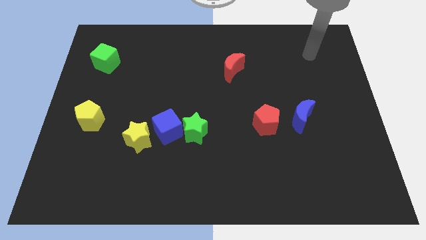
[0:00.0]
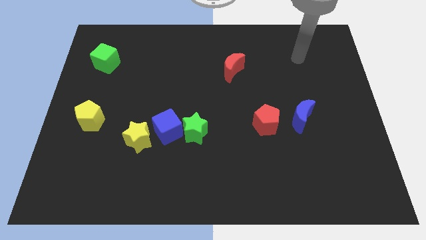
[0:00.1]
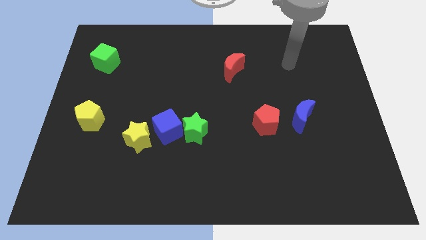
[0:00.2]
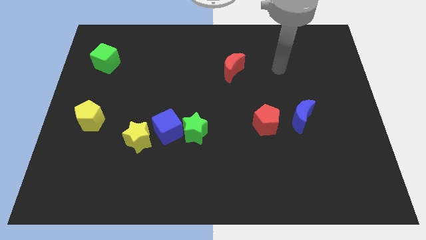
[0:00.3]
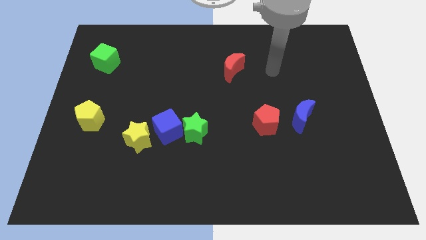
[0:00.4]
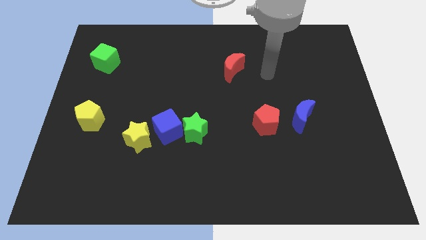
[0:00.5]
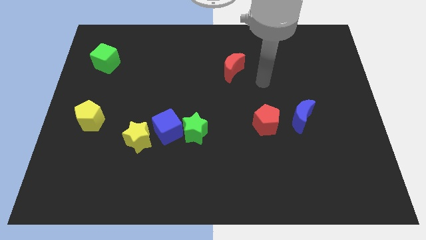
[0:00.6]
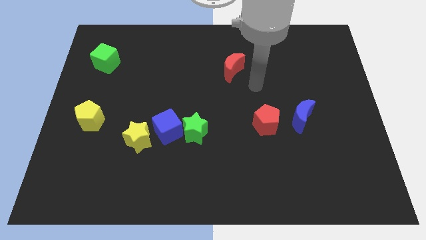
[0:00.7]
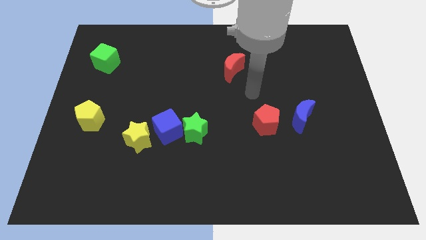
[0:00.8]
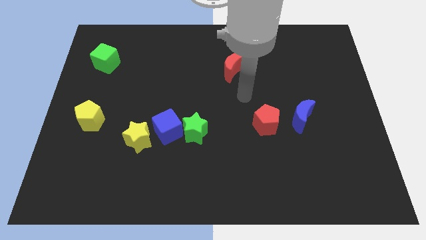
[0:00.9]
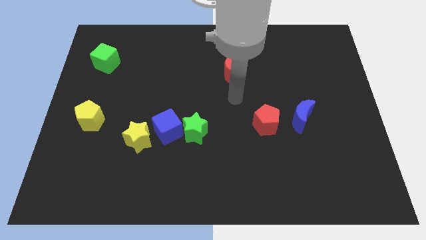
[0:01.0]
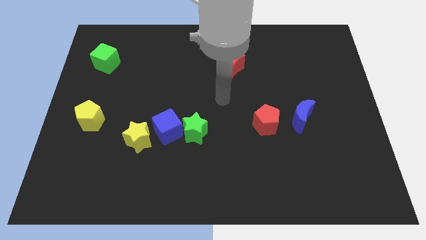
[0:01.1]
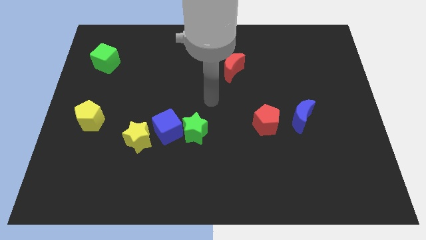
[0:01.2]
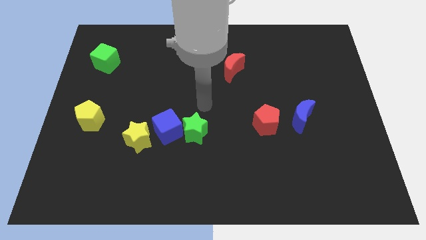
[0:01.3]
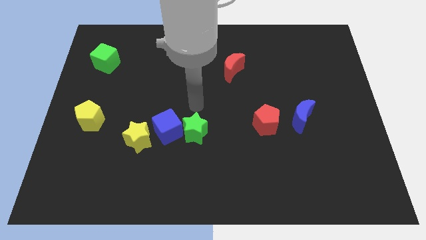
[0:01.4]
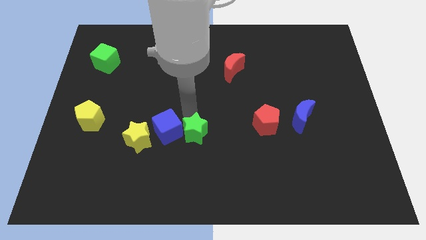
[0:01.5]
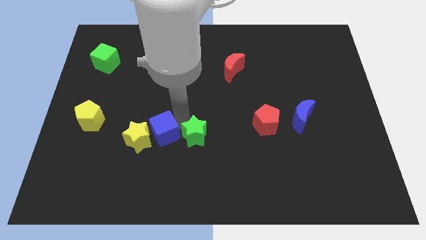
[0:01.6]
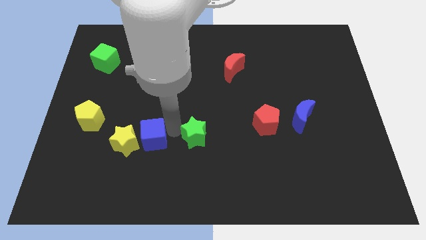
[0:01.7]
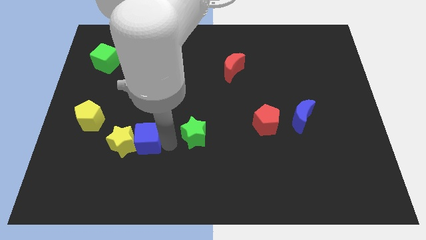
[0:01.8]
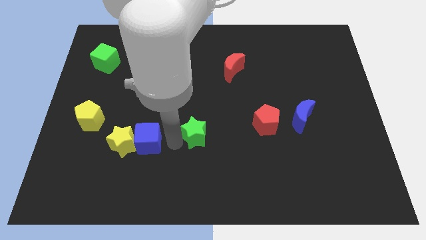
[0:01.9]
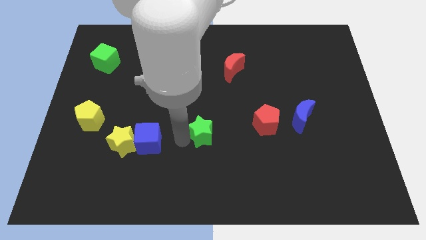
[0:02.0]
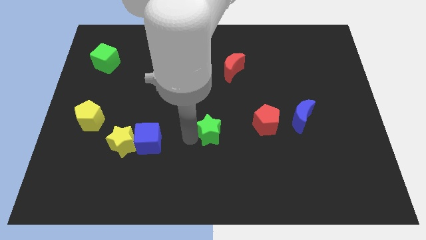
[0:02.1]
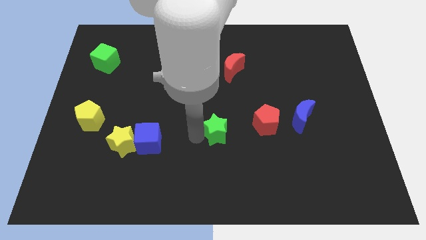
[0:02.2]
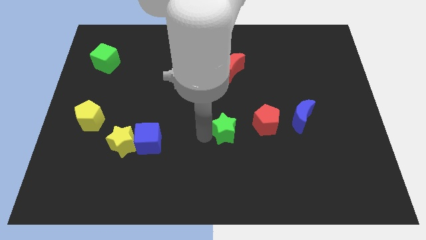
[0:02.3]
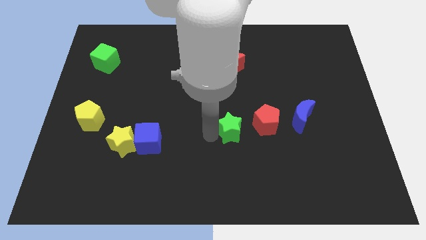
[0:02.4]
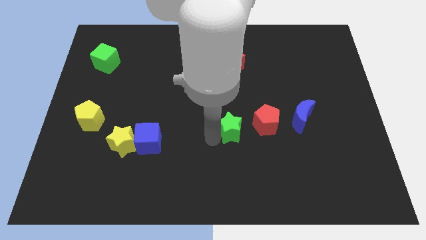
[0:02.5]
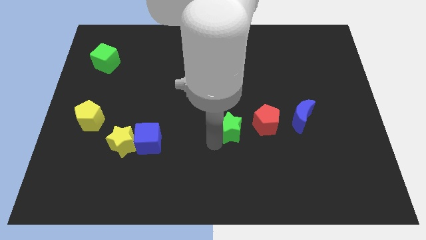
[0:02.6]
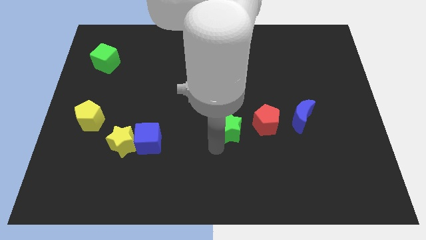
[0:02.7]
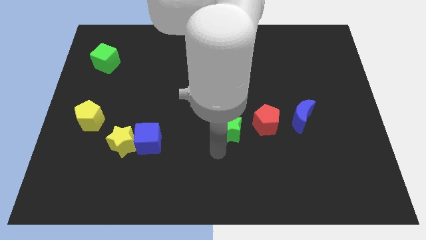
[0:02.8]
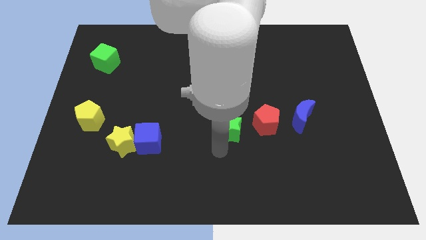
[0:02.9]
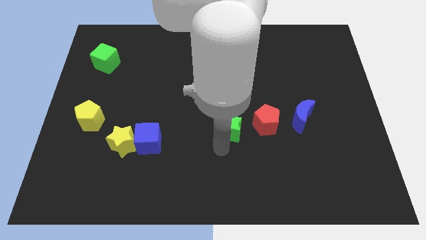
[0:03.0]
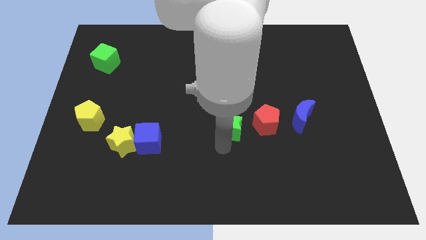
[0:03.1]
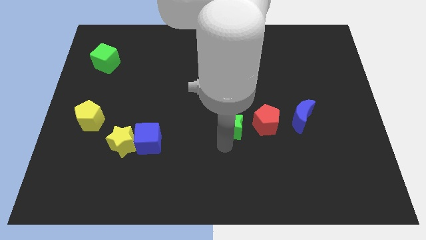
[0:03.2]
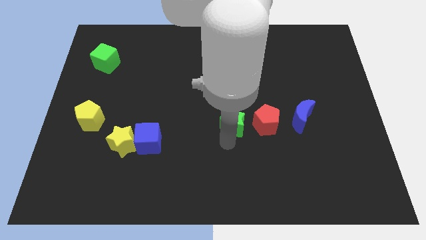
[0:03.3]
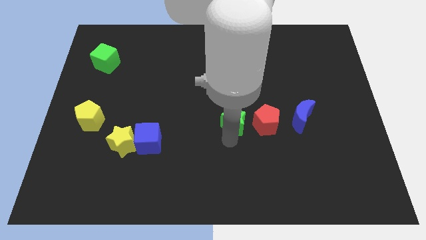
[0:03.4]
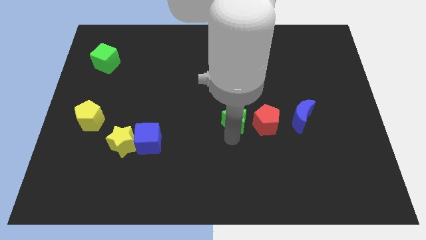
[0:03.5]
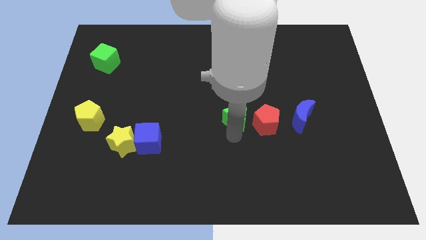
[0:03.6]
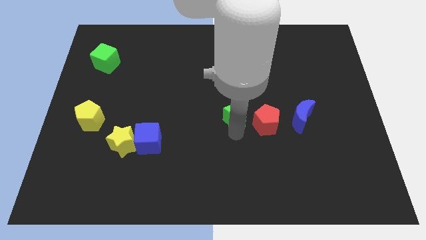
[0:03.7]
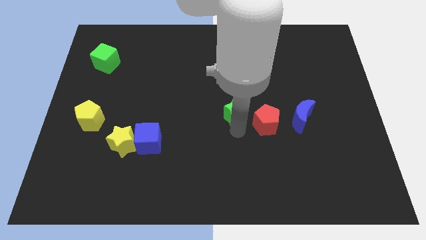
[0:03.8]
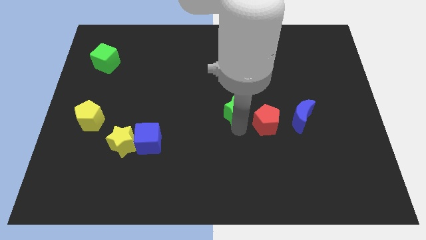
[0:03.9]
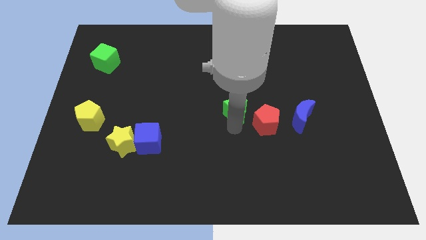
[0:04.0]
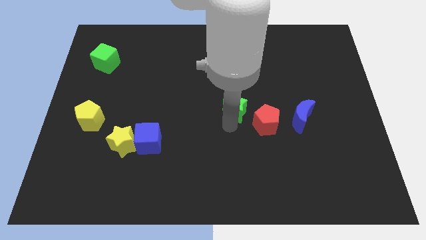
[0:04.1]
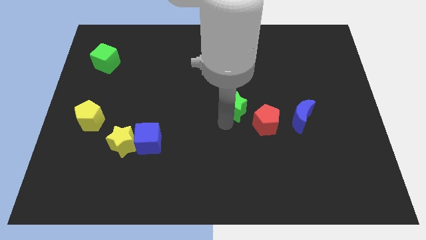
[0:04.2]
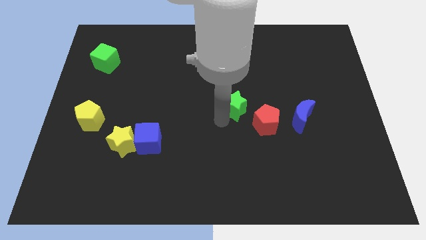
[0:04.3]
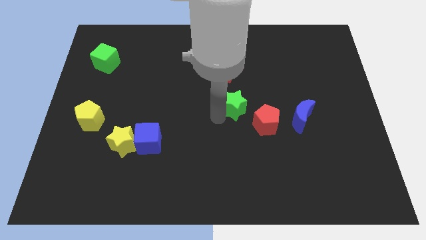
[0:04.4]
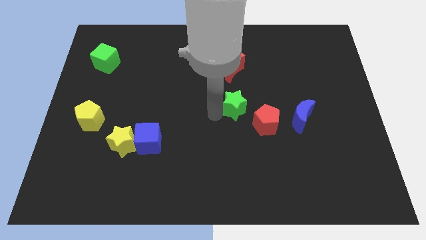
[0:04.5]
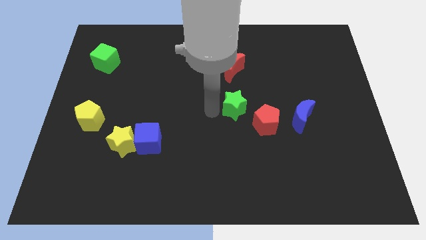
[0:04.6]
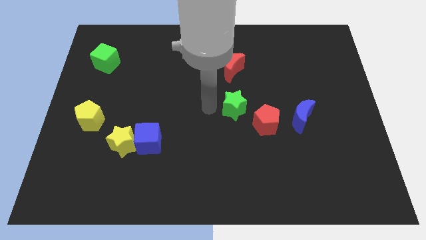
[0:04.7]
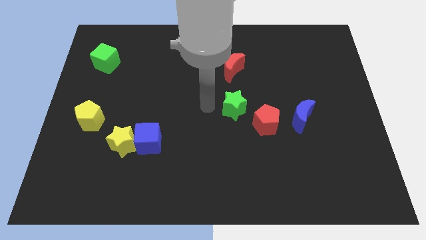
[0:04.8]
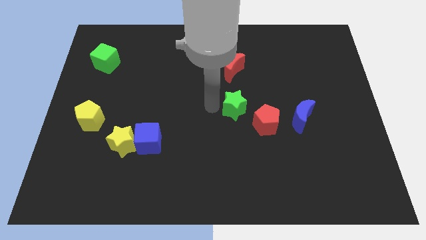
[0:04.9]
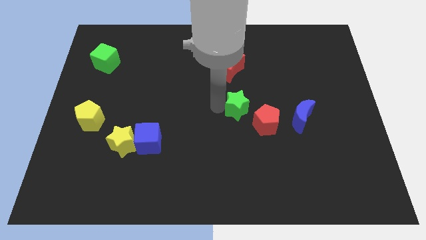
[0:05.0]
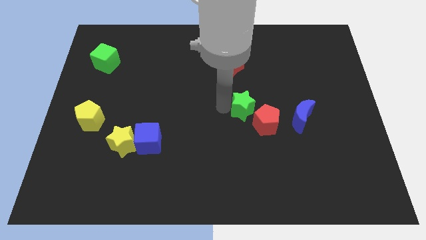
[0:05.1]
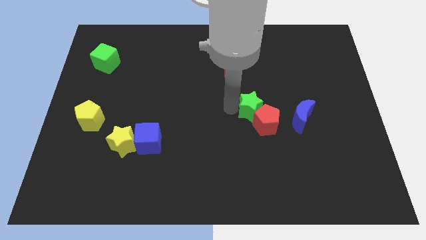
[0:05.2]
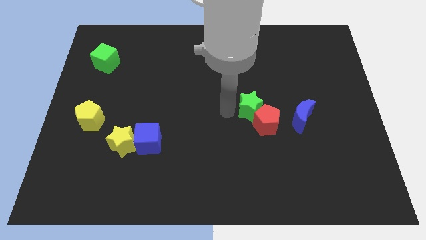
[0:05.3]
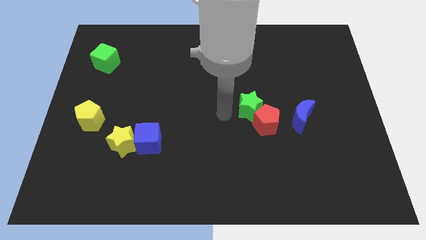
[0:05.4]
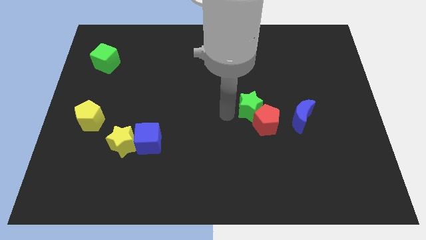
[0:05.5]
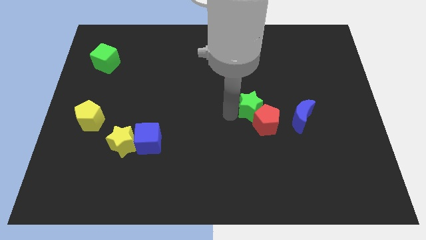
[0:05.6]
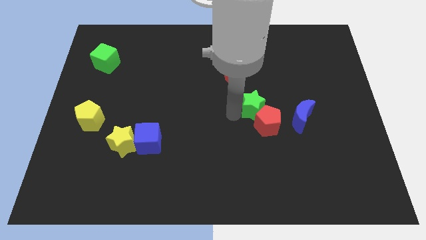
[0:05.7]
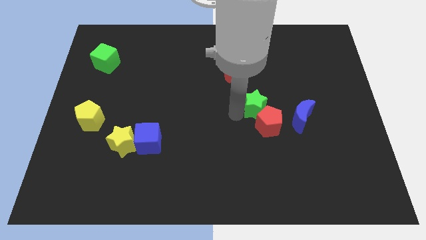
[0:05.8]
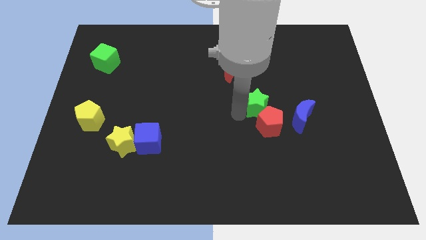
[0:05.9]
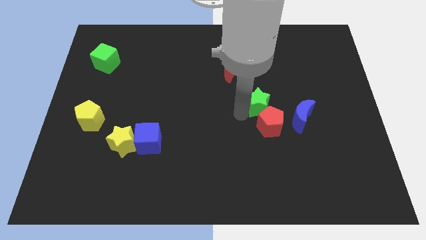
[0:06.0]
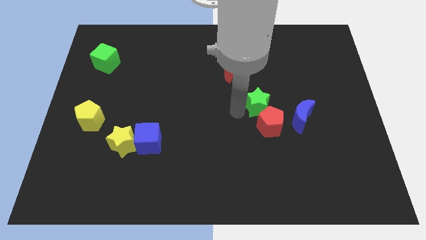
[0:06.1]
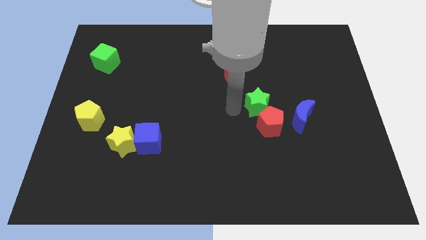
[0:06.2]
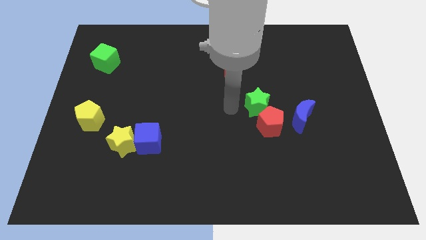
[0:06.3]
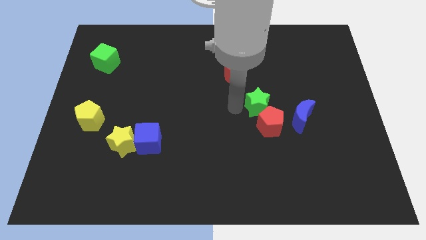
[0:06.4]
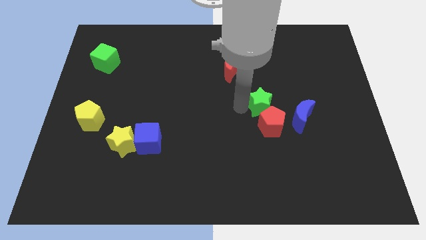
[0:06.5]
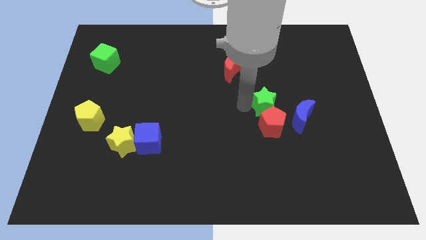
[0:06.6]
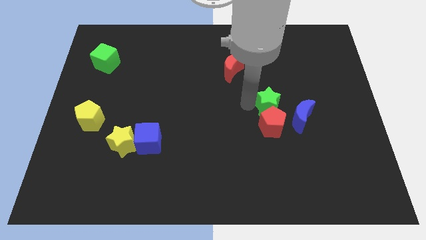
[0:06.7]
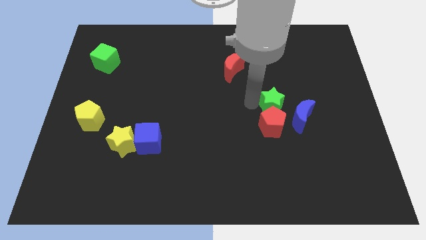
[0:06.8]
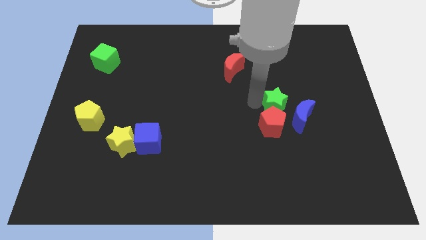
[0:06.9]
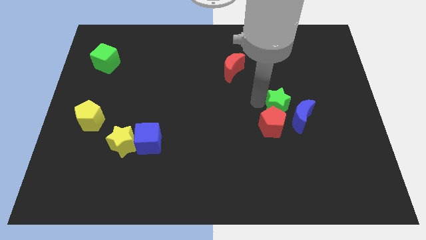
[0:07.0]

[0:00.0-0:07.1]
put the green star next to the blue moon

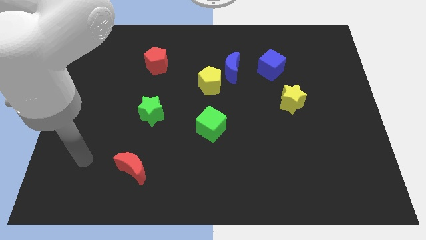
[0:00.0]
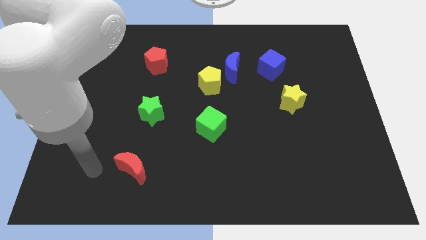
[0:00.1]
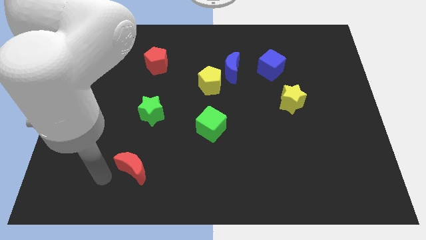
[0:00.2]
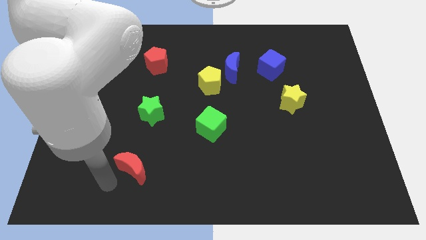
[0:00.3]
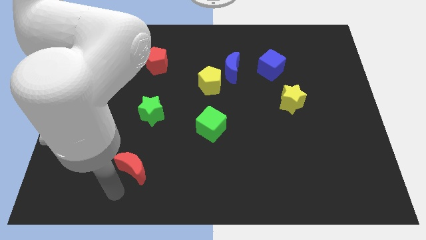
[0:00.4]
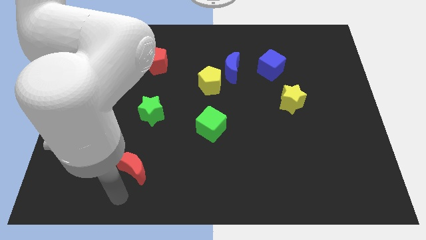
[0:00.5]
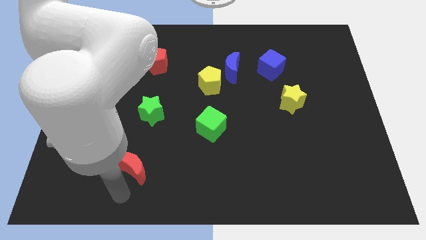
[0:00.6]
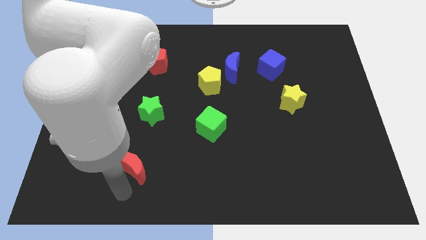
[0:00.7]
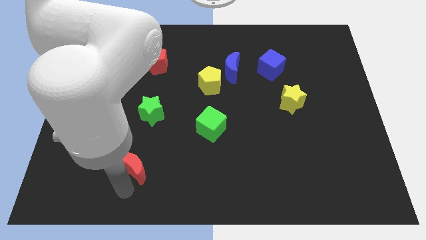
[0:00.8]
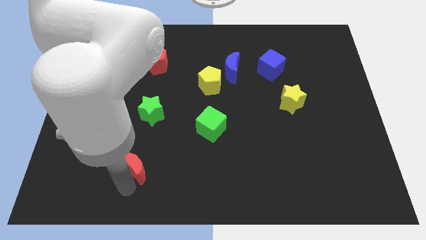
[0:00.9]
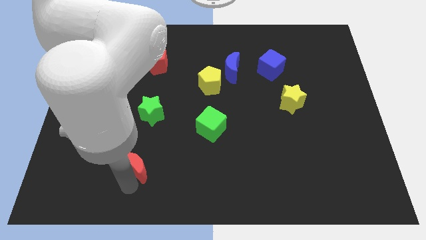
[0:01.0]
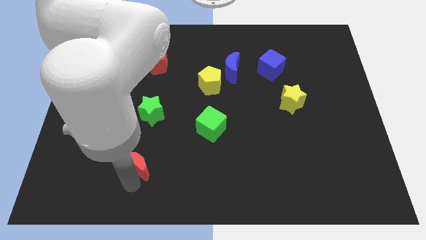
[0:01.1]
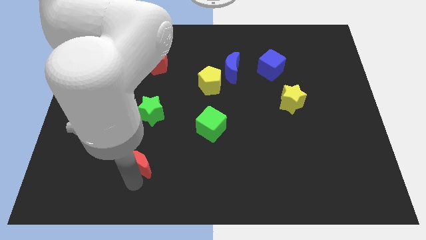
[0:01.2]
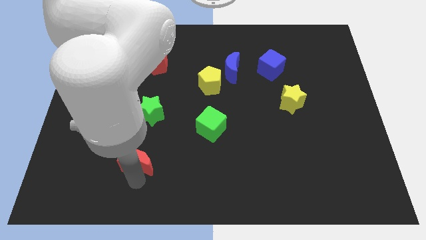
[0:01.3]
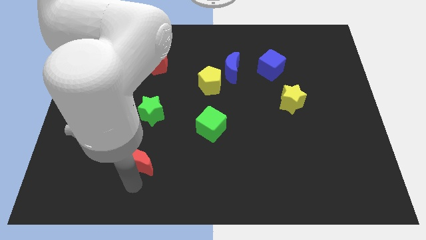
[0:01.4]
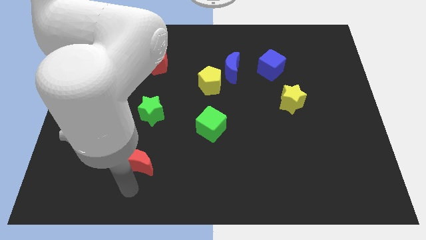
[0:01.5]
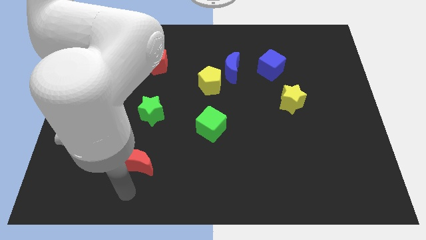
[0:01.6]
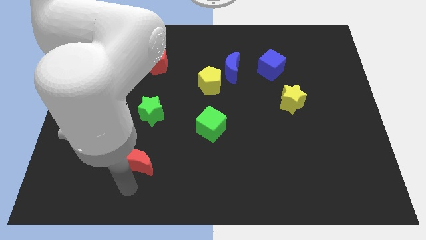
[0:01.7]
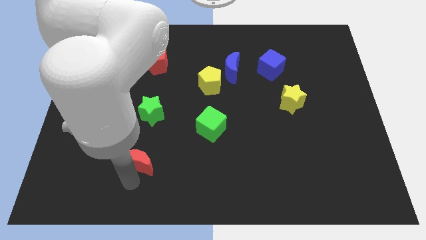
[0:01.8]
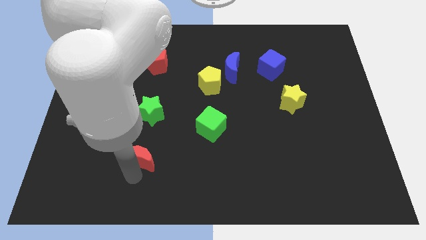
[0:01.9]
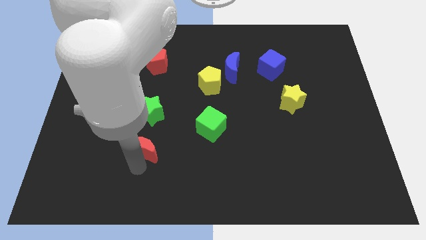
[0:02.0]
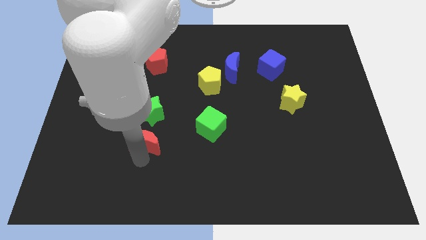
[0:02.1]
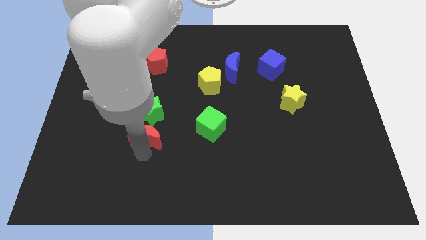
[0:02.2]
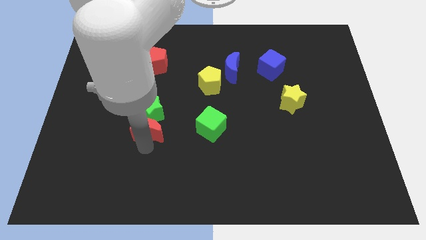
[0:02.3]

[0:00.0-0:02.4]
move the red moon close to the green star
